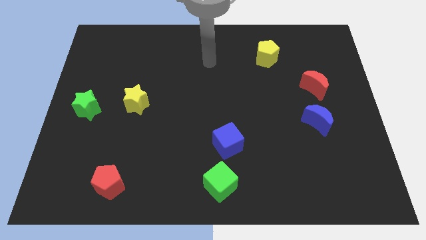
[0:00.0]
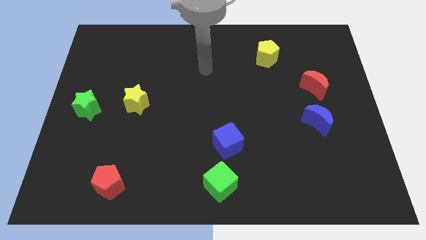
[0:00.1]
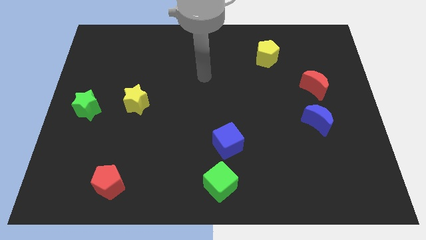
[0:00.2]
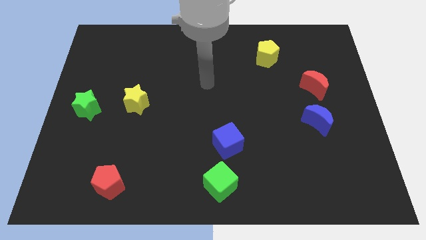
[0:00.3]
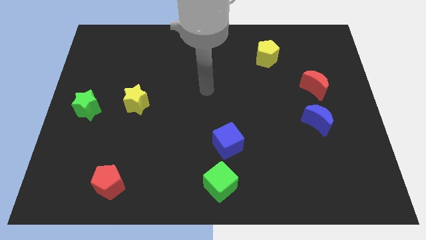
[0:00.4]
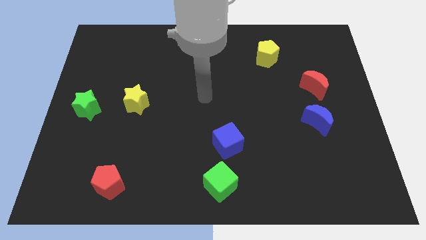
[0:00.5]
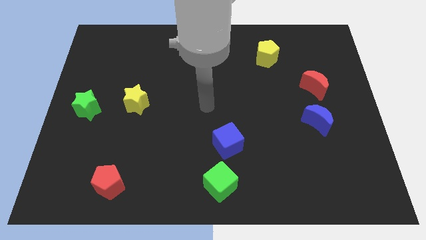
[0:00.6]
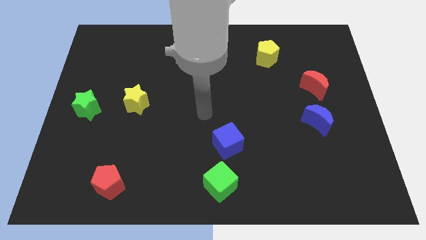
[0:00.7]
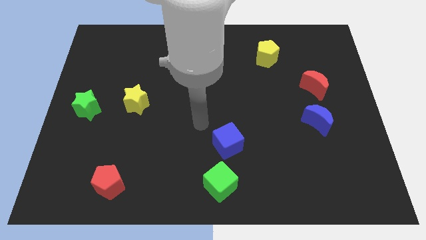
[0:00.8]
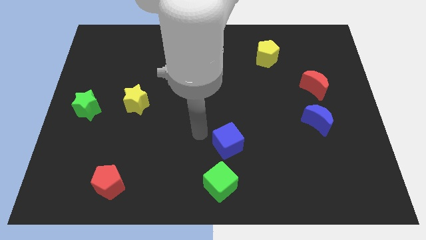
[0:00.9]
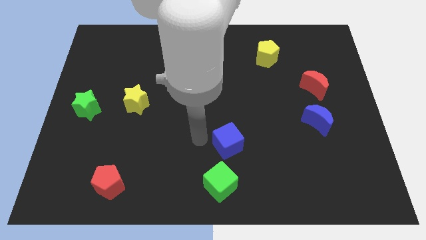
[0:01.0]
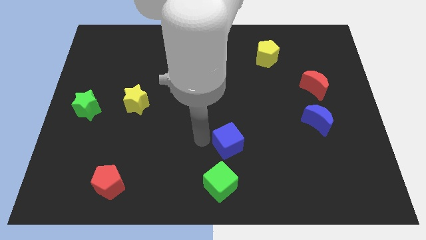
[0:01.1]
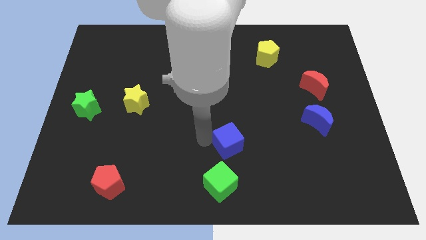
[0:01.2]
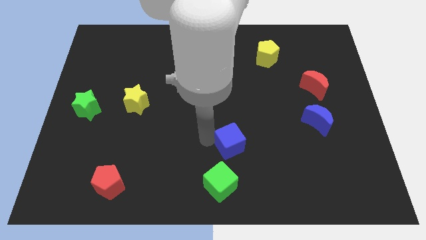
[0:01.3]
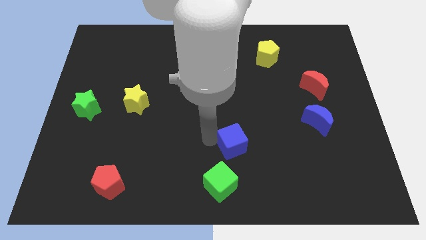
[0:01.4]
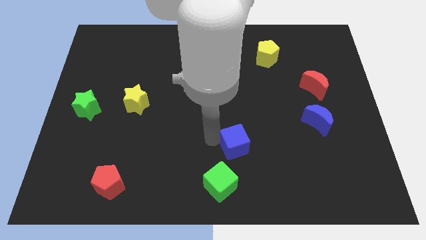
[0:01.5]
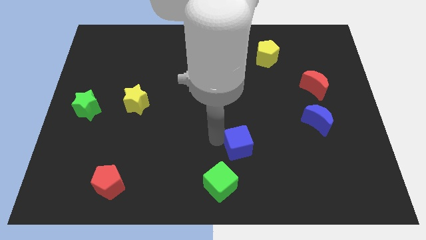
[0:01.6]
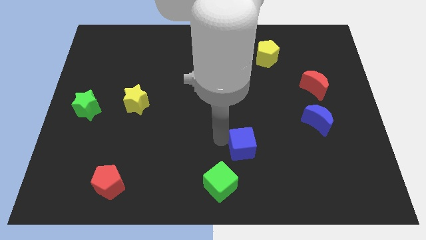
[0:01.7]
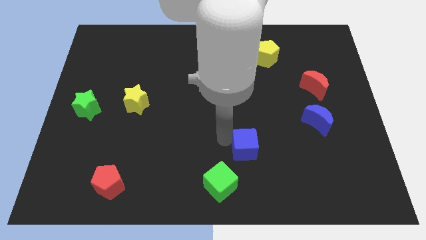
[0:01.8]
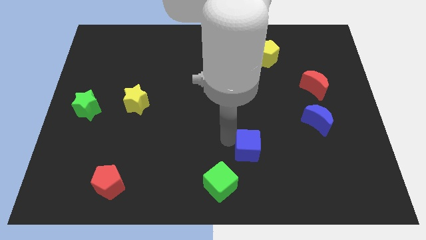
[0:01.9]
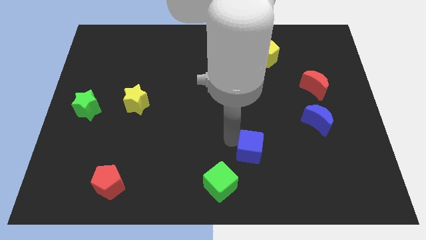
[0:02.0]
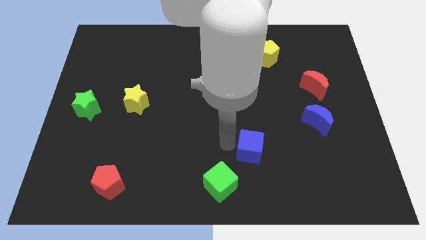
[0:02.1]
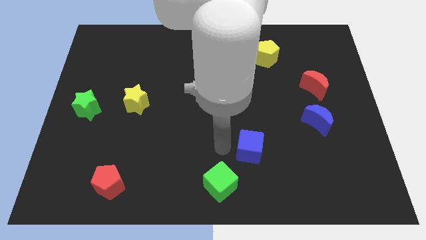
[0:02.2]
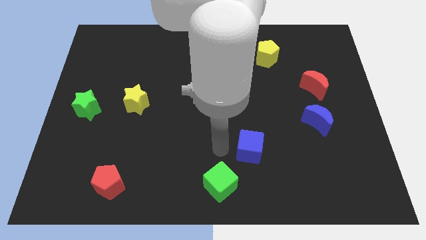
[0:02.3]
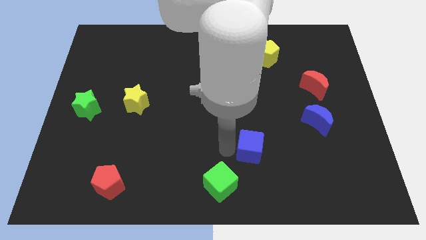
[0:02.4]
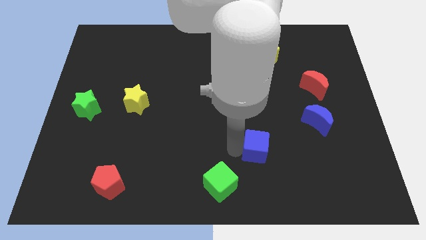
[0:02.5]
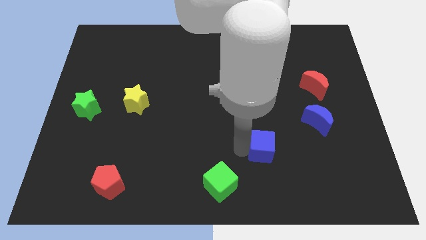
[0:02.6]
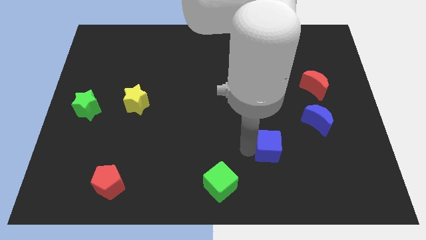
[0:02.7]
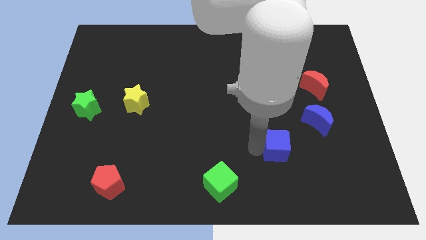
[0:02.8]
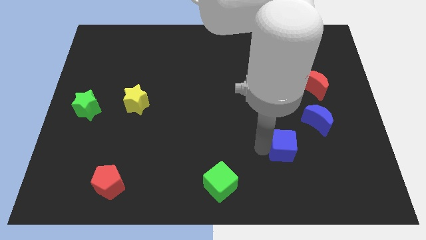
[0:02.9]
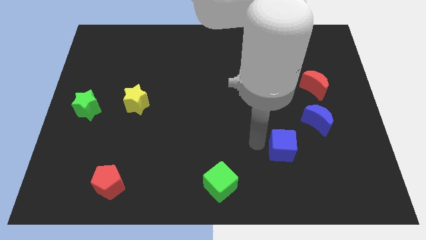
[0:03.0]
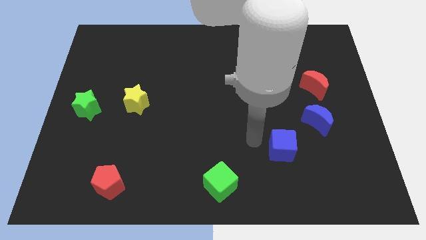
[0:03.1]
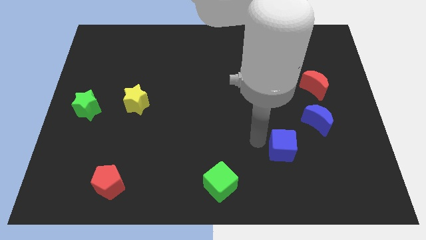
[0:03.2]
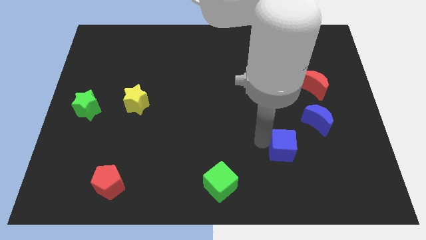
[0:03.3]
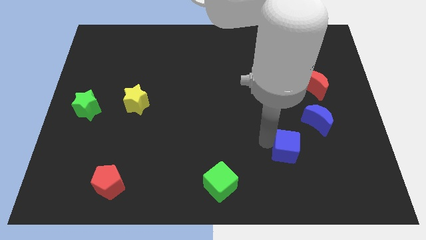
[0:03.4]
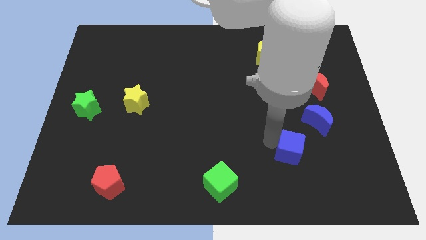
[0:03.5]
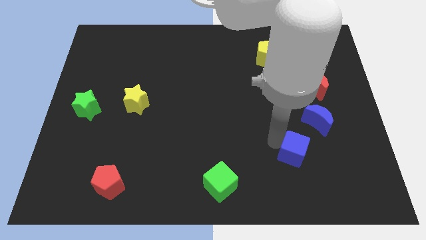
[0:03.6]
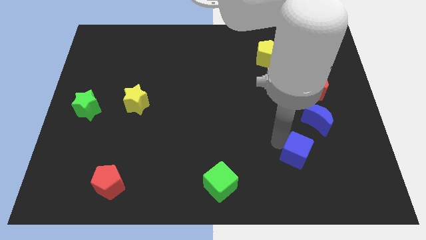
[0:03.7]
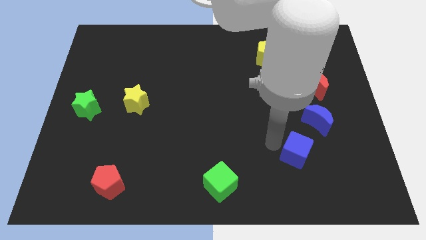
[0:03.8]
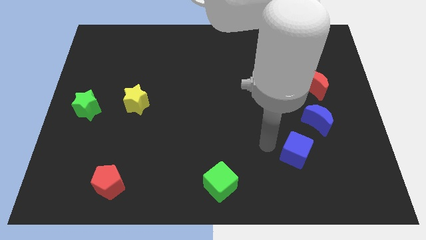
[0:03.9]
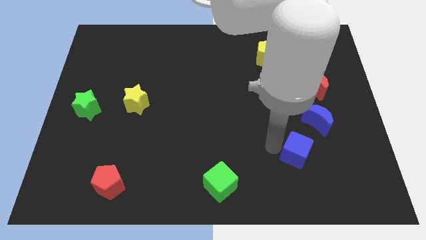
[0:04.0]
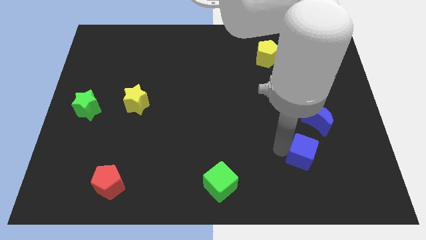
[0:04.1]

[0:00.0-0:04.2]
put the blue cube below the blue moon

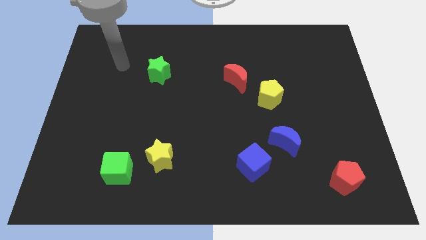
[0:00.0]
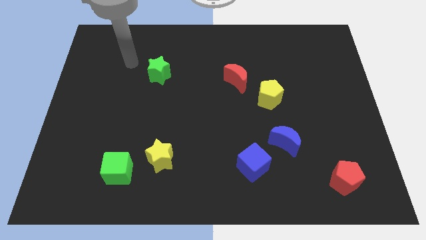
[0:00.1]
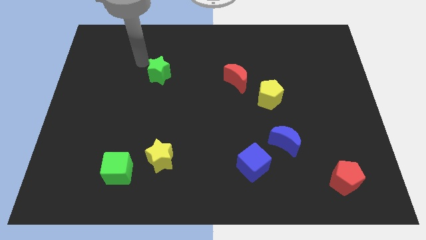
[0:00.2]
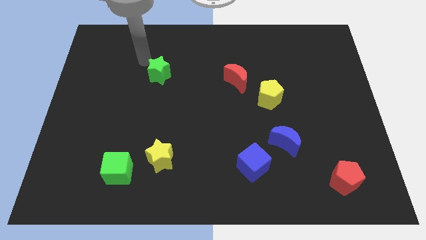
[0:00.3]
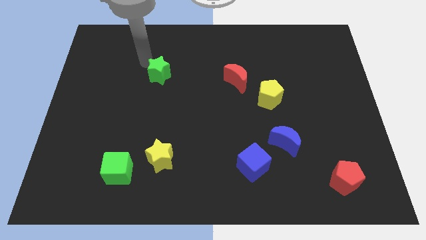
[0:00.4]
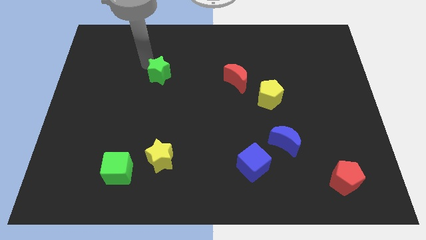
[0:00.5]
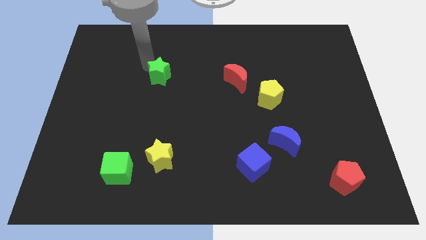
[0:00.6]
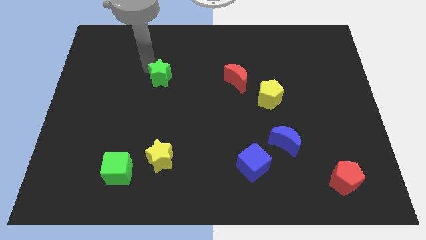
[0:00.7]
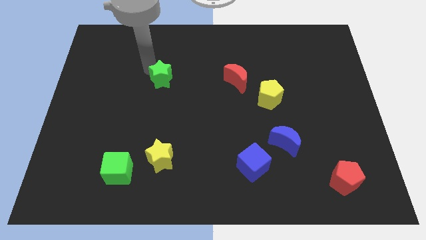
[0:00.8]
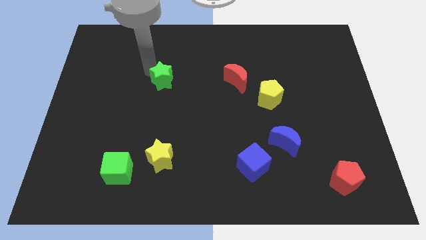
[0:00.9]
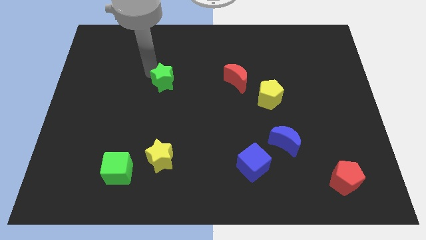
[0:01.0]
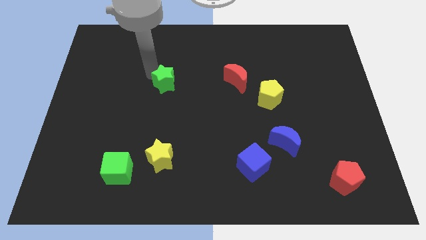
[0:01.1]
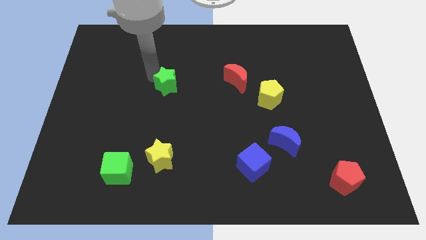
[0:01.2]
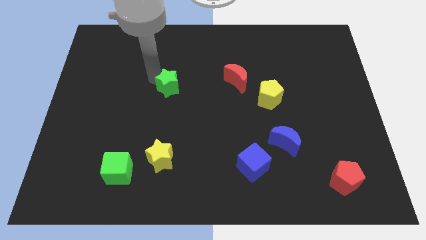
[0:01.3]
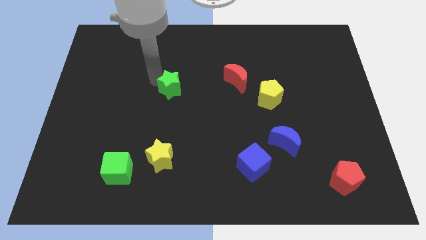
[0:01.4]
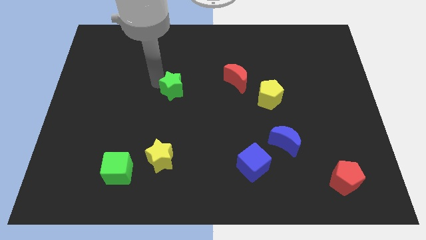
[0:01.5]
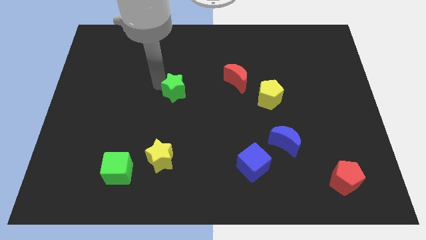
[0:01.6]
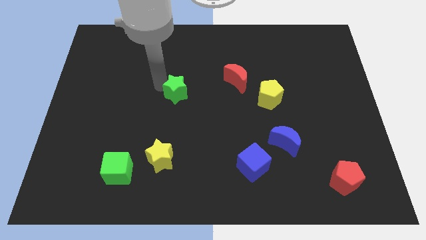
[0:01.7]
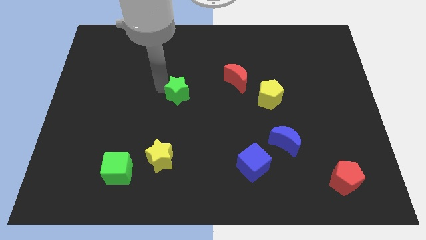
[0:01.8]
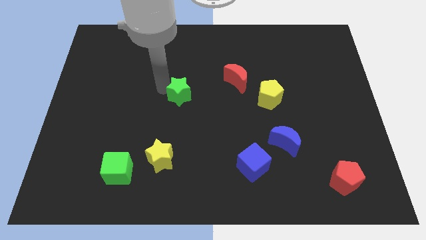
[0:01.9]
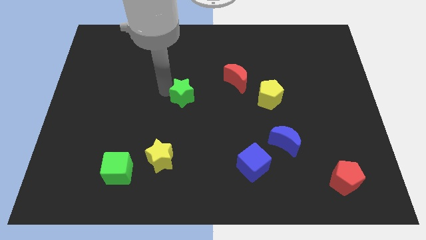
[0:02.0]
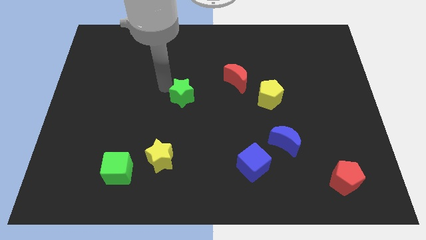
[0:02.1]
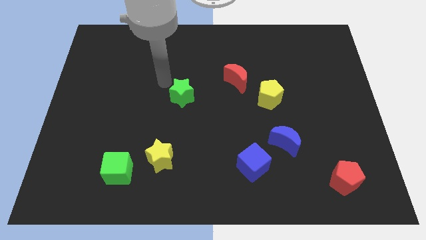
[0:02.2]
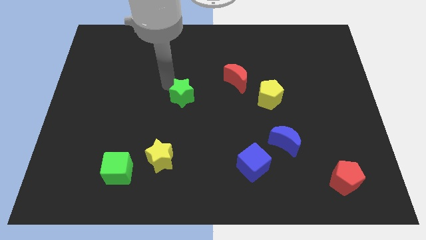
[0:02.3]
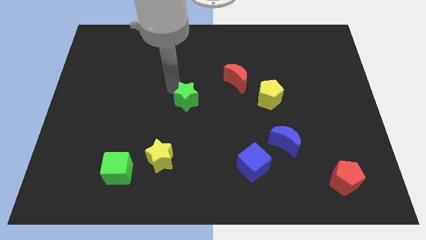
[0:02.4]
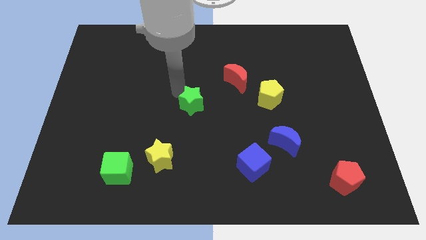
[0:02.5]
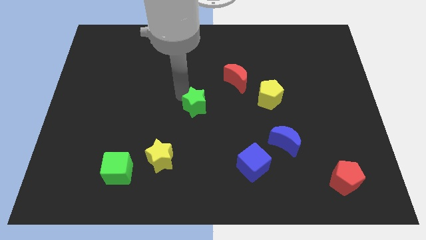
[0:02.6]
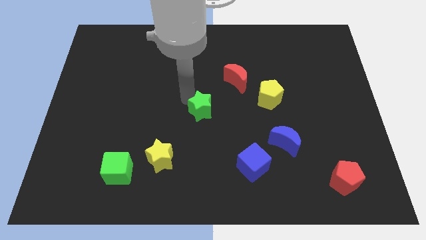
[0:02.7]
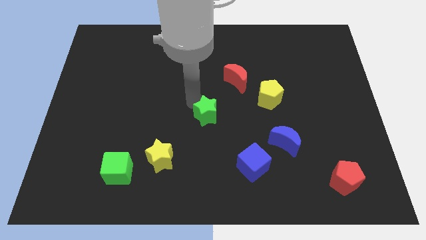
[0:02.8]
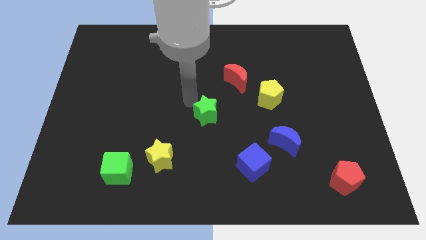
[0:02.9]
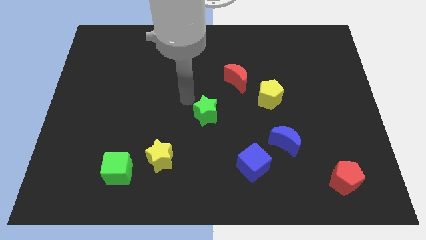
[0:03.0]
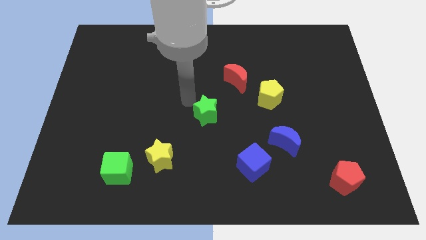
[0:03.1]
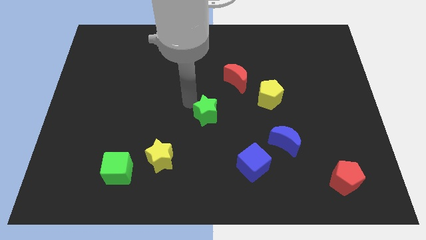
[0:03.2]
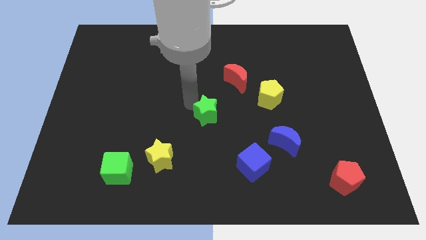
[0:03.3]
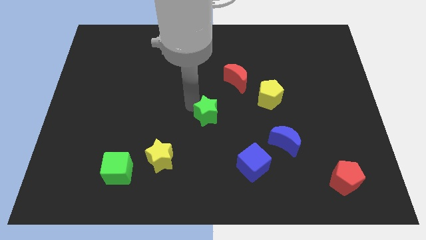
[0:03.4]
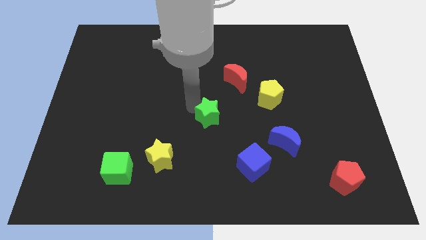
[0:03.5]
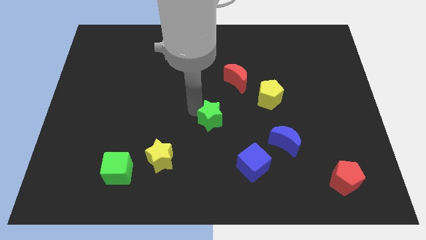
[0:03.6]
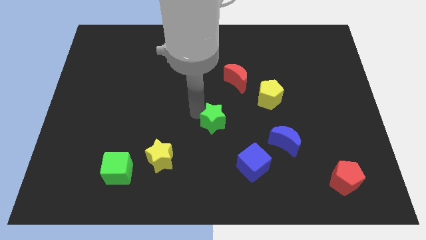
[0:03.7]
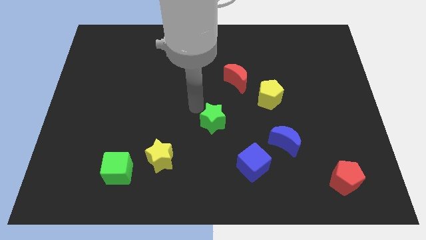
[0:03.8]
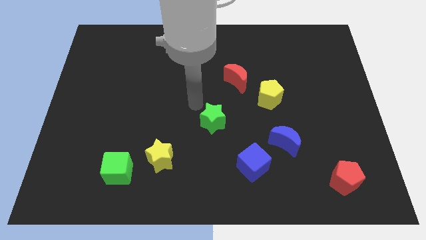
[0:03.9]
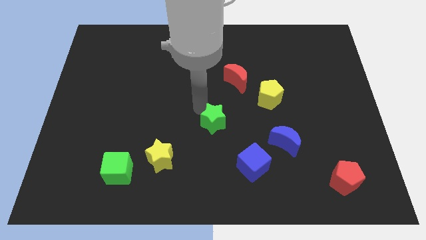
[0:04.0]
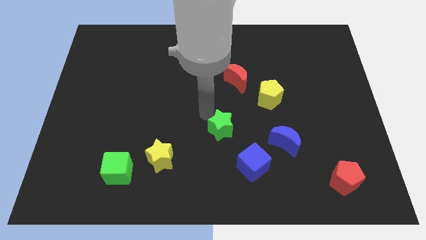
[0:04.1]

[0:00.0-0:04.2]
push the green star just left of the blue moon
